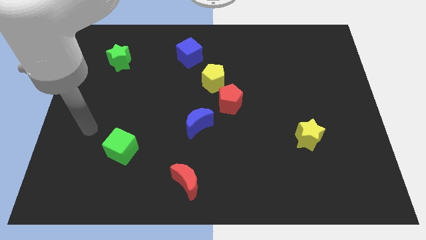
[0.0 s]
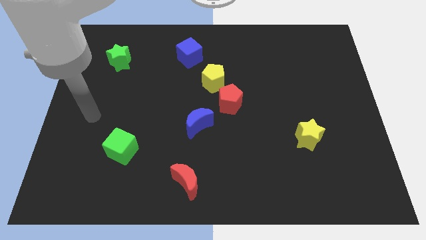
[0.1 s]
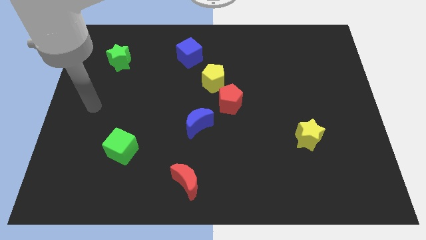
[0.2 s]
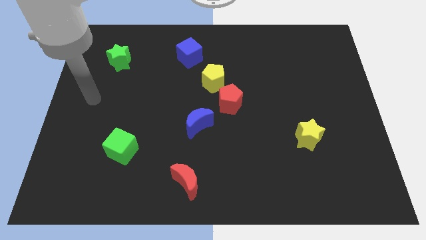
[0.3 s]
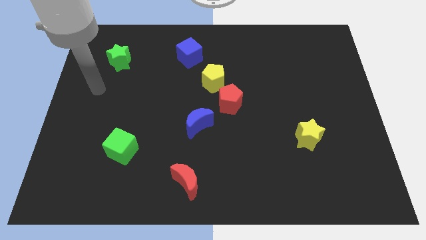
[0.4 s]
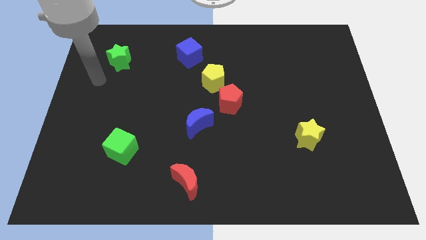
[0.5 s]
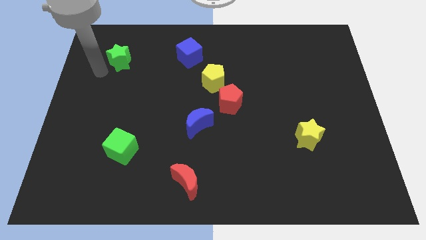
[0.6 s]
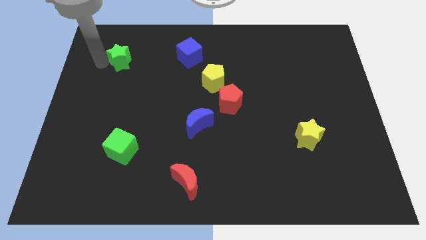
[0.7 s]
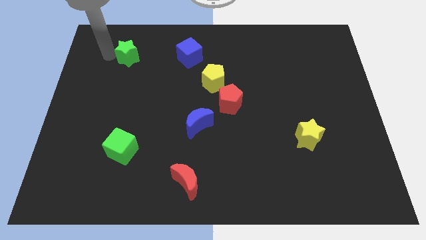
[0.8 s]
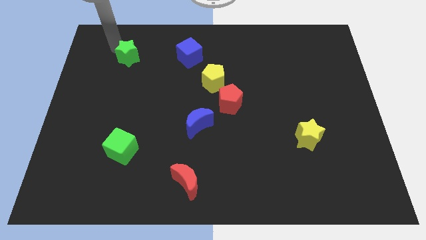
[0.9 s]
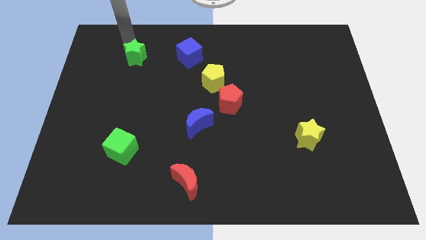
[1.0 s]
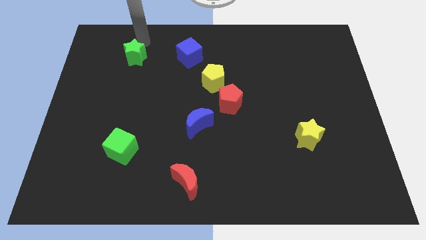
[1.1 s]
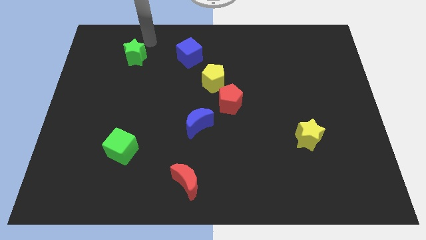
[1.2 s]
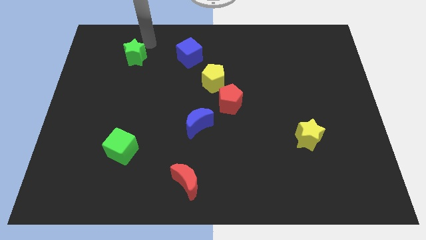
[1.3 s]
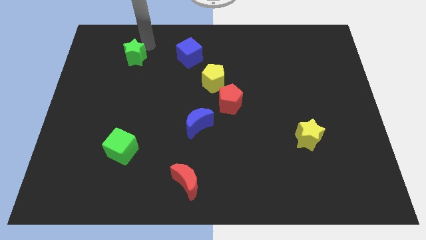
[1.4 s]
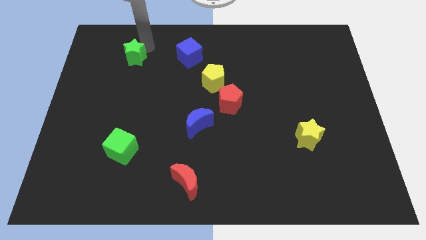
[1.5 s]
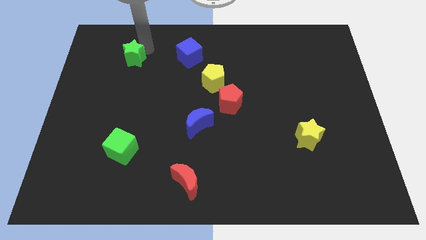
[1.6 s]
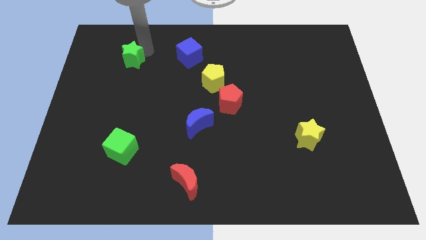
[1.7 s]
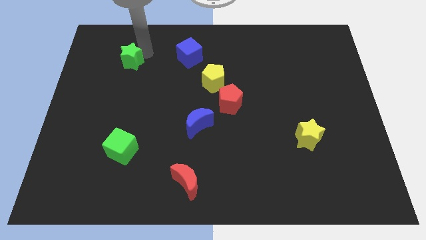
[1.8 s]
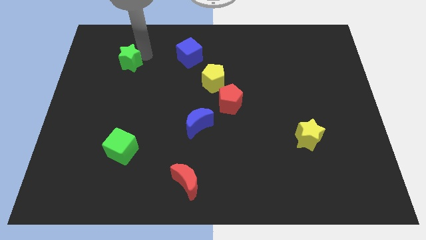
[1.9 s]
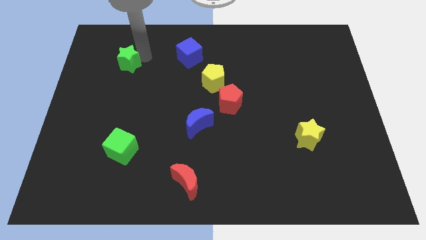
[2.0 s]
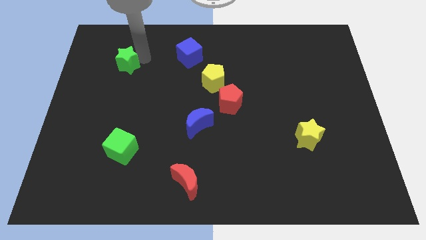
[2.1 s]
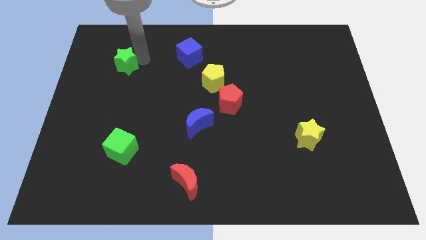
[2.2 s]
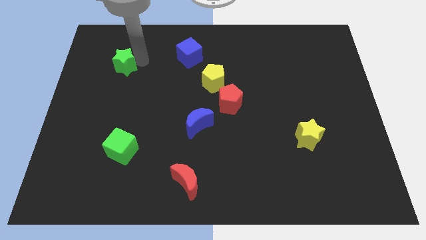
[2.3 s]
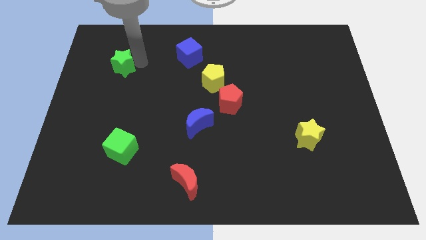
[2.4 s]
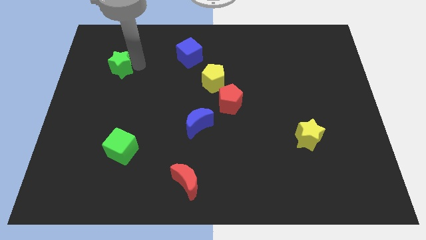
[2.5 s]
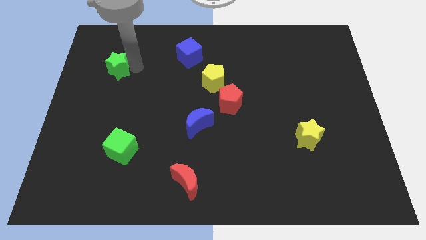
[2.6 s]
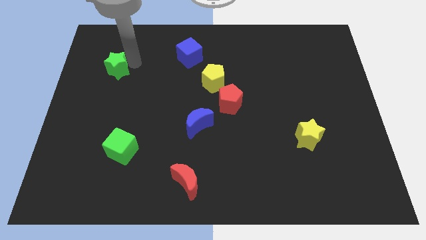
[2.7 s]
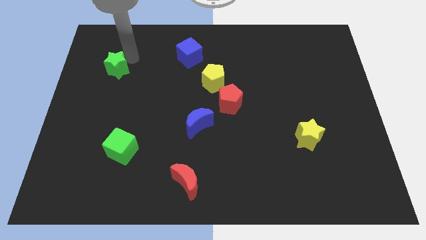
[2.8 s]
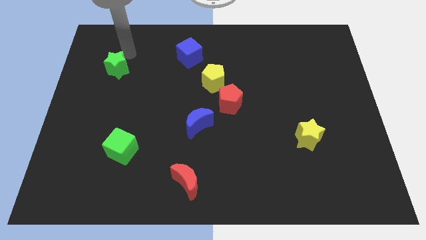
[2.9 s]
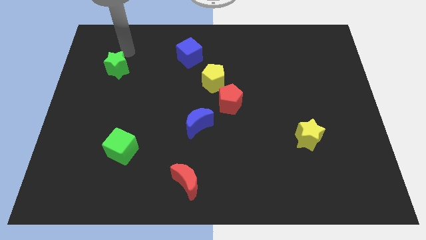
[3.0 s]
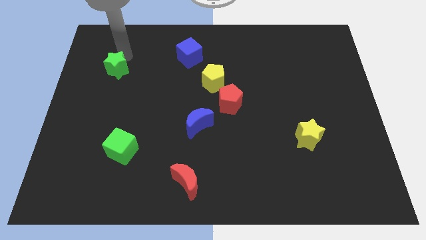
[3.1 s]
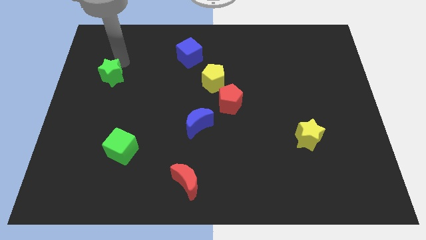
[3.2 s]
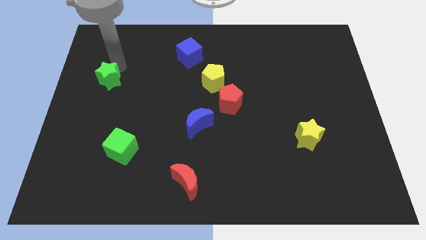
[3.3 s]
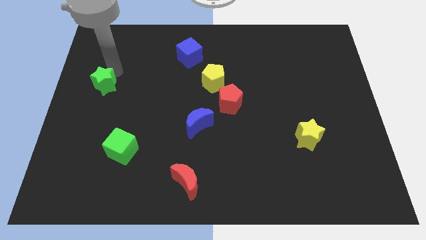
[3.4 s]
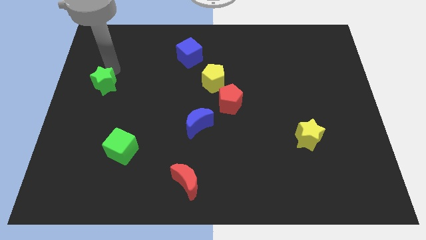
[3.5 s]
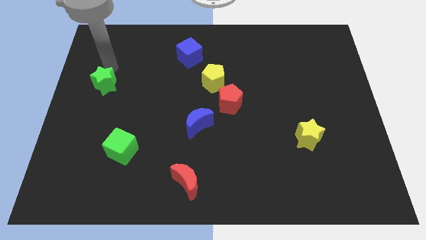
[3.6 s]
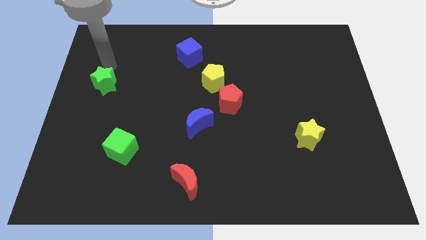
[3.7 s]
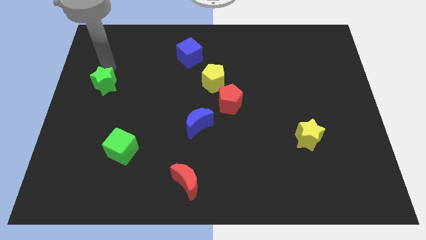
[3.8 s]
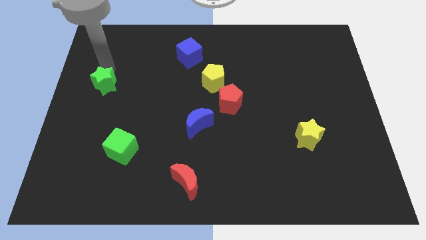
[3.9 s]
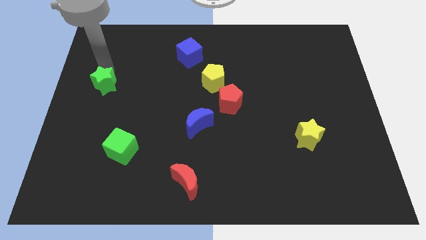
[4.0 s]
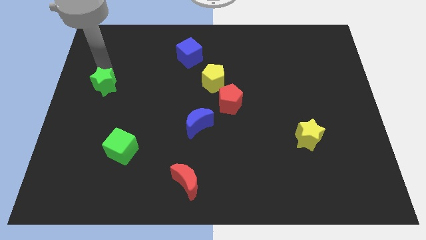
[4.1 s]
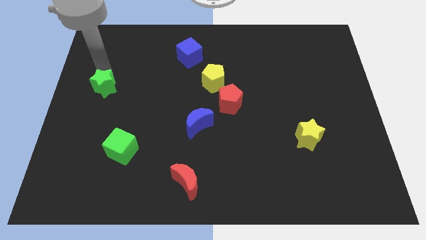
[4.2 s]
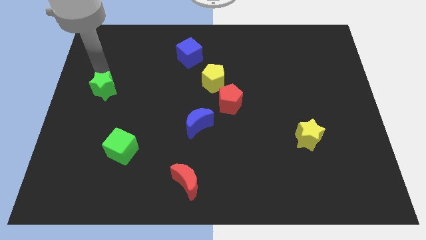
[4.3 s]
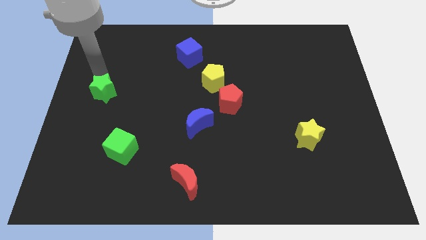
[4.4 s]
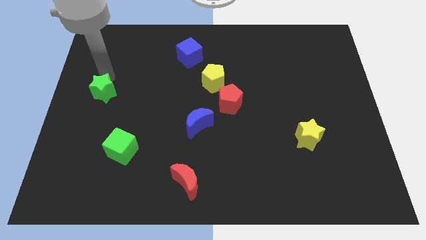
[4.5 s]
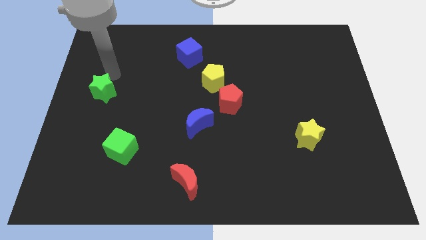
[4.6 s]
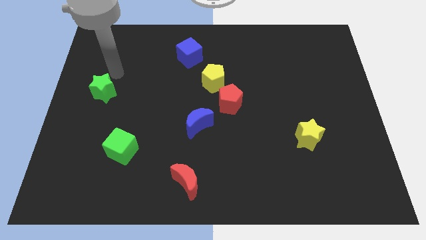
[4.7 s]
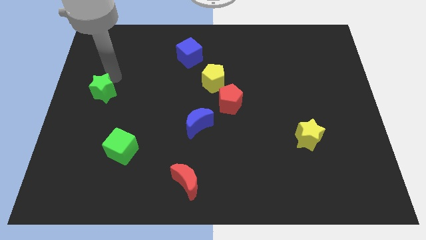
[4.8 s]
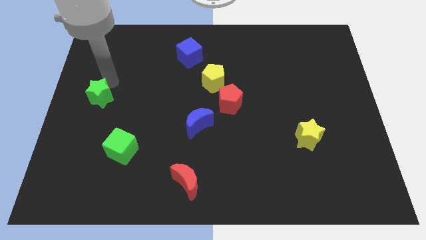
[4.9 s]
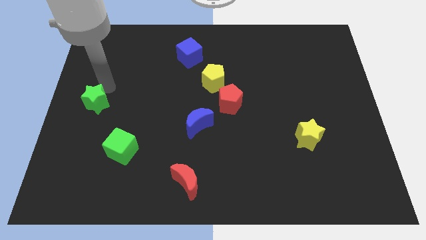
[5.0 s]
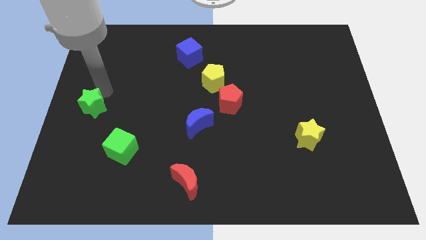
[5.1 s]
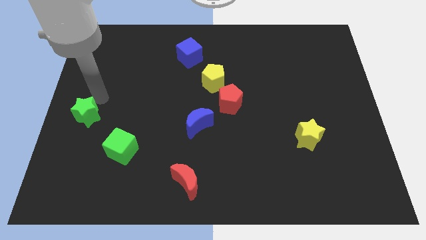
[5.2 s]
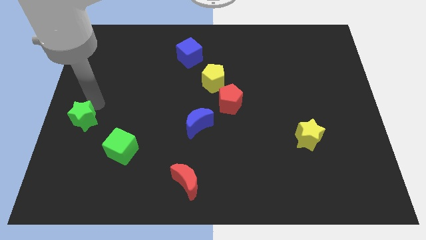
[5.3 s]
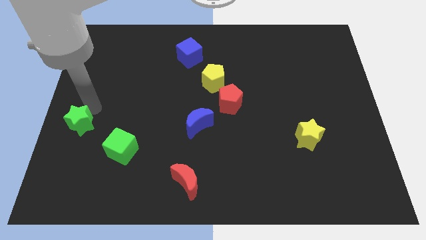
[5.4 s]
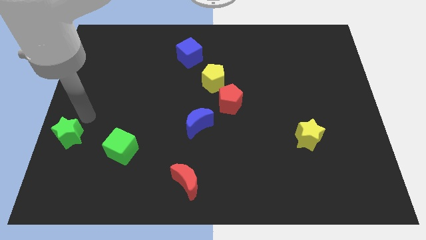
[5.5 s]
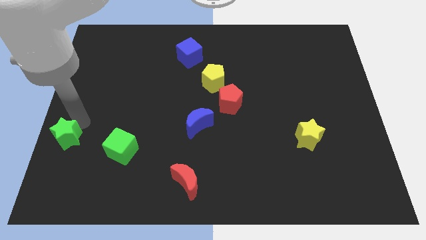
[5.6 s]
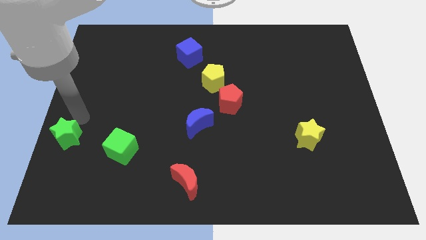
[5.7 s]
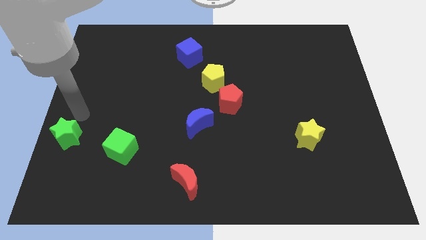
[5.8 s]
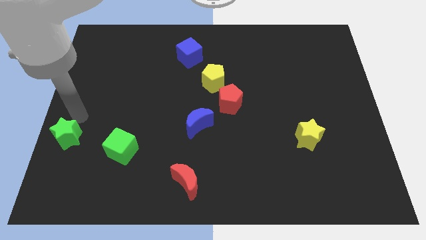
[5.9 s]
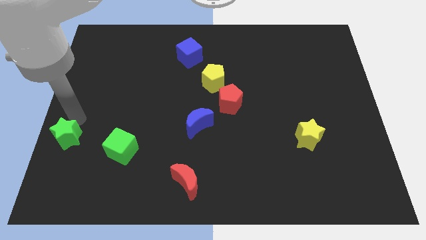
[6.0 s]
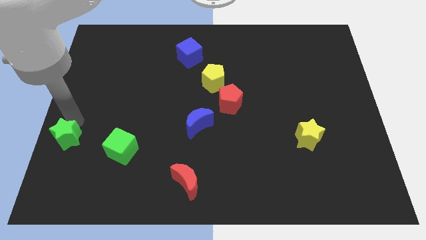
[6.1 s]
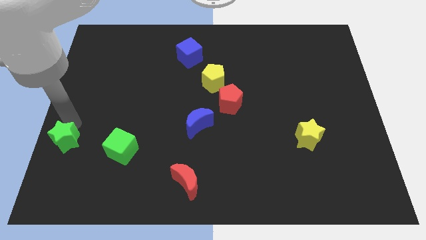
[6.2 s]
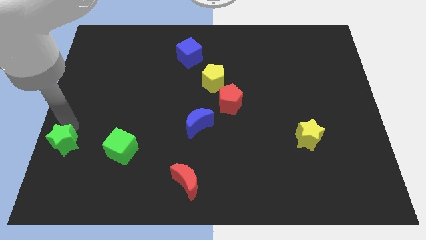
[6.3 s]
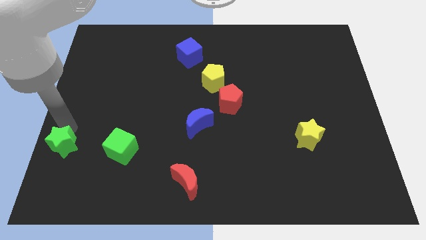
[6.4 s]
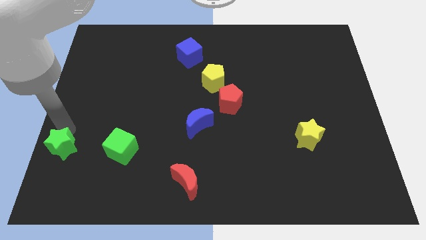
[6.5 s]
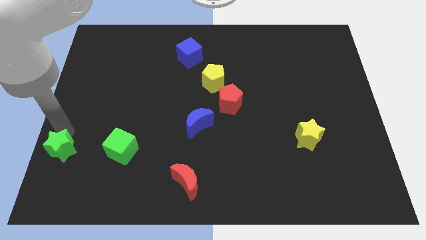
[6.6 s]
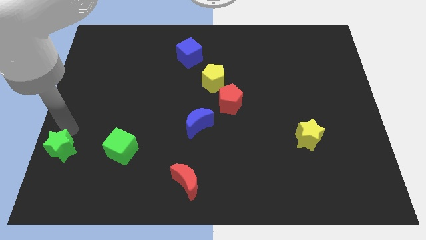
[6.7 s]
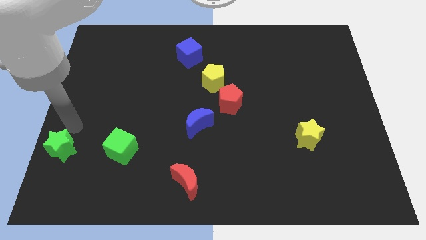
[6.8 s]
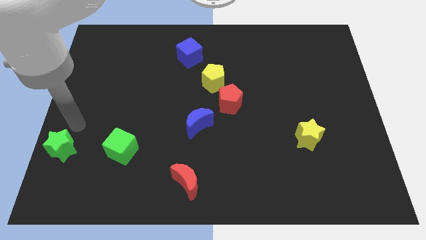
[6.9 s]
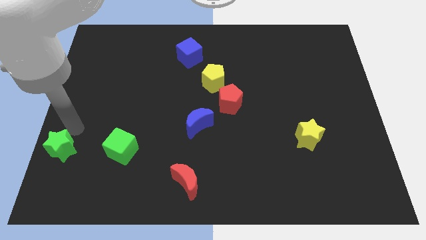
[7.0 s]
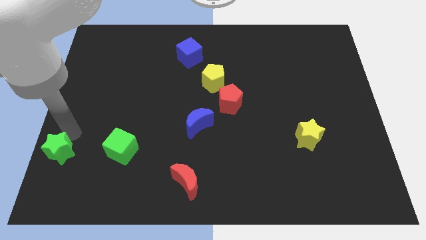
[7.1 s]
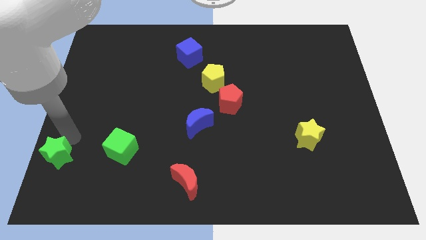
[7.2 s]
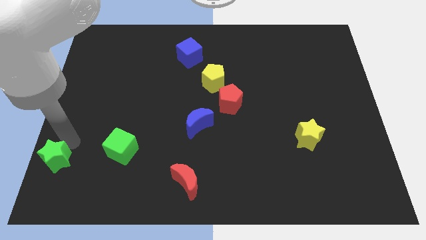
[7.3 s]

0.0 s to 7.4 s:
slide the green star to the lower left corner
